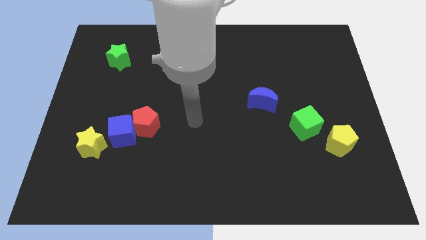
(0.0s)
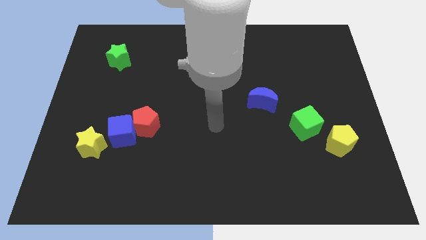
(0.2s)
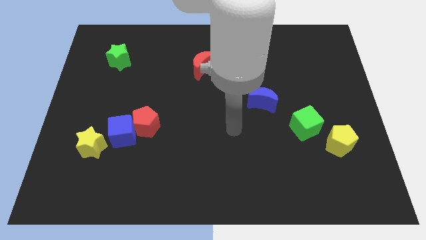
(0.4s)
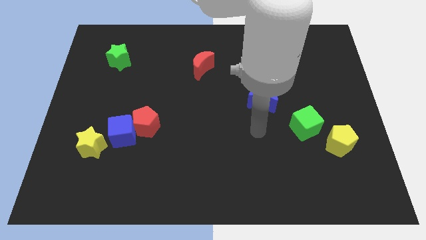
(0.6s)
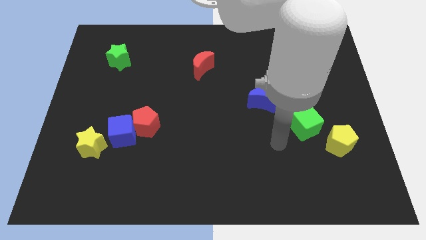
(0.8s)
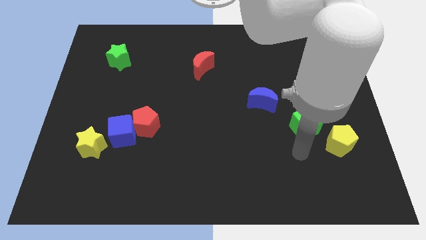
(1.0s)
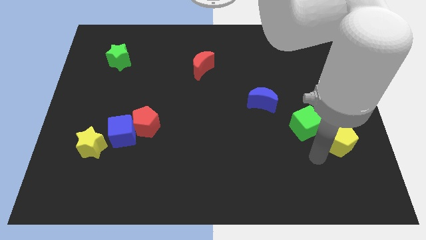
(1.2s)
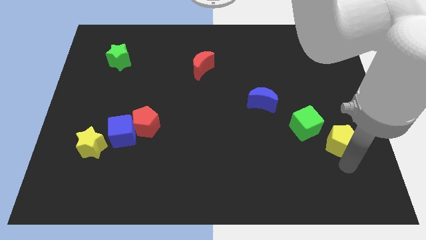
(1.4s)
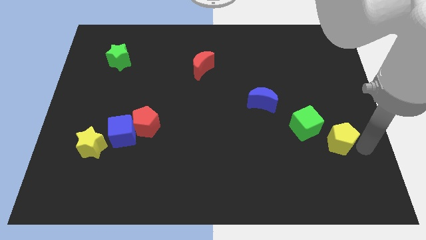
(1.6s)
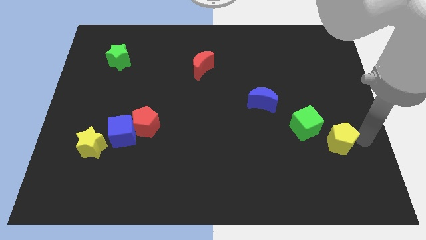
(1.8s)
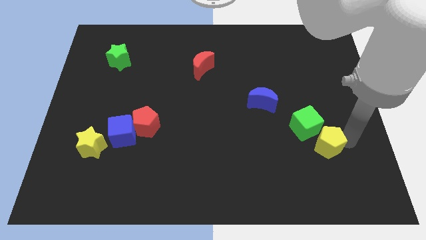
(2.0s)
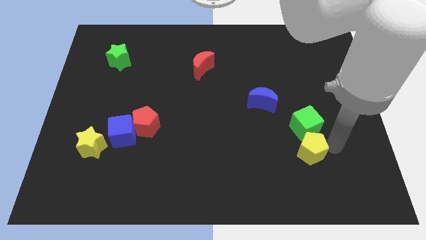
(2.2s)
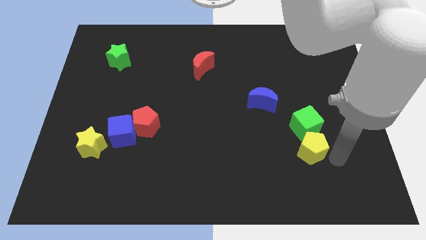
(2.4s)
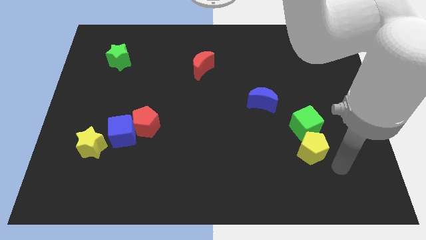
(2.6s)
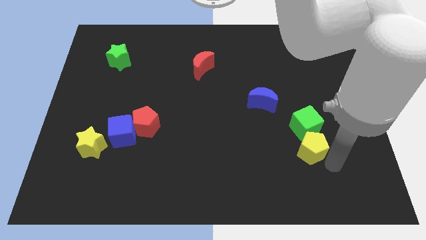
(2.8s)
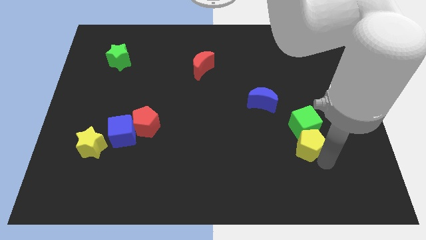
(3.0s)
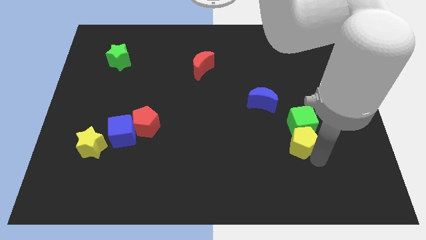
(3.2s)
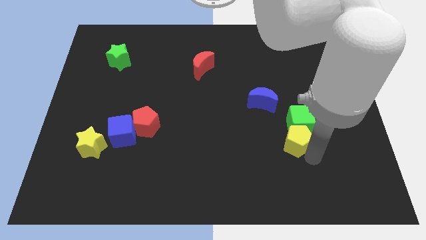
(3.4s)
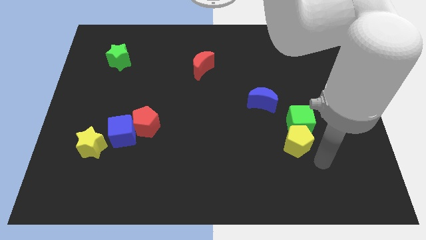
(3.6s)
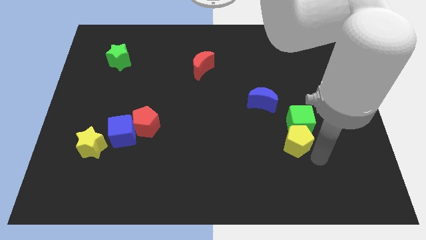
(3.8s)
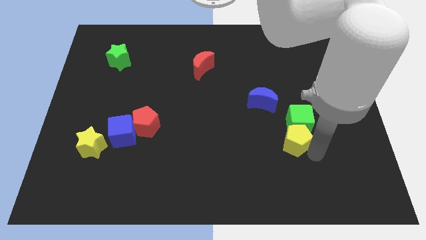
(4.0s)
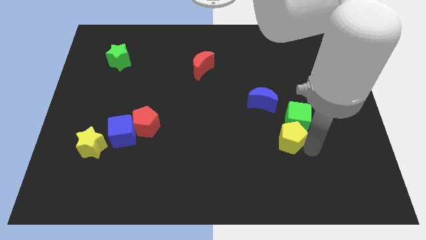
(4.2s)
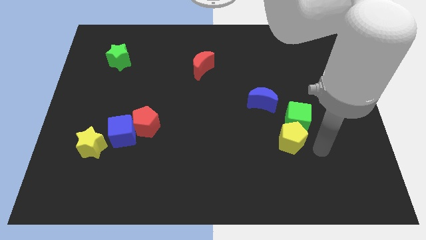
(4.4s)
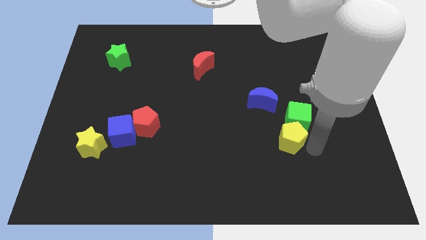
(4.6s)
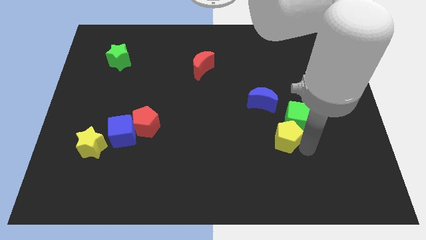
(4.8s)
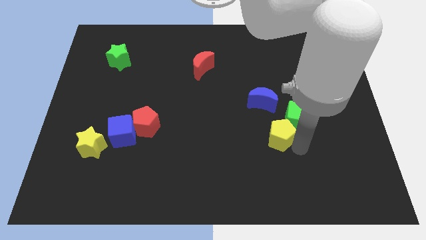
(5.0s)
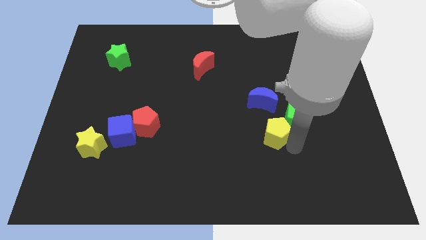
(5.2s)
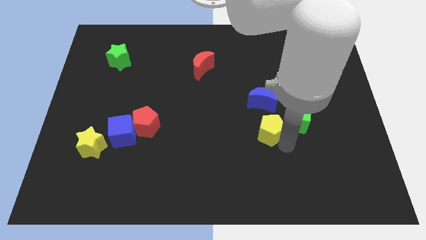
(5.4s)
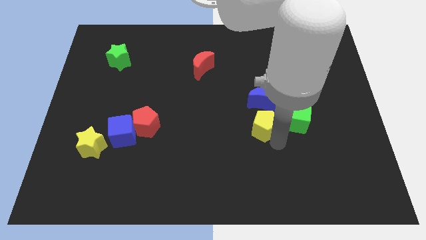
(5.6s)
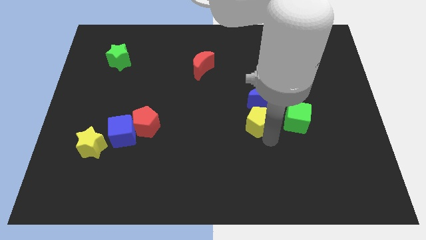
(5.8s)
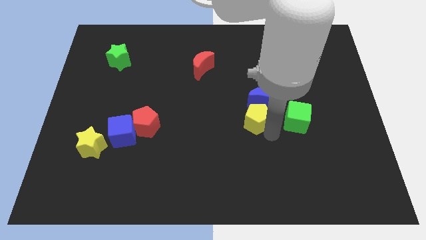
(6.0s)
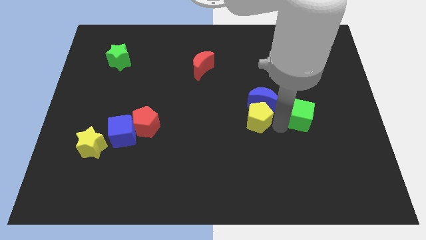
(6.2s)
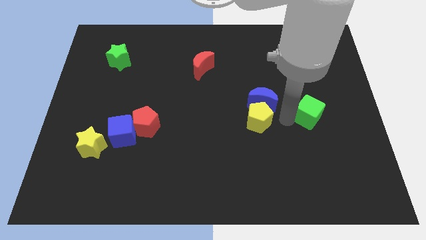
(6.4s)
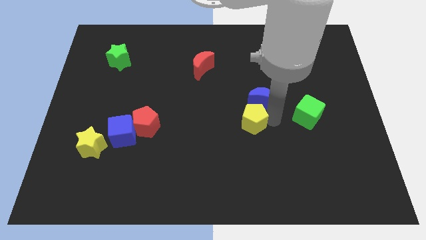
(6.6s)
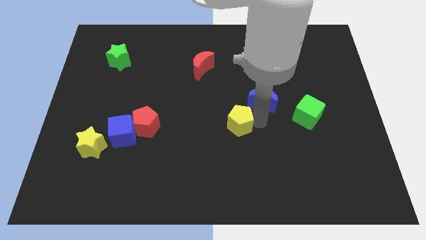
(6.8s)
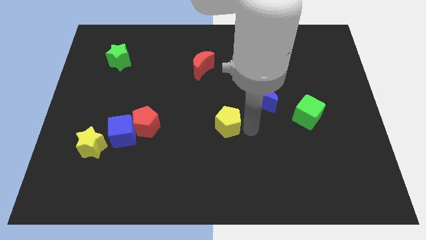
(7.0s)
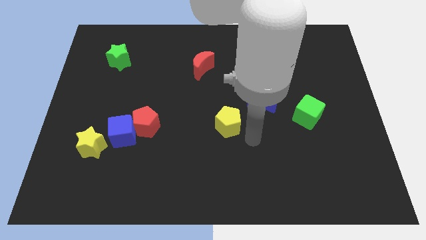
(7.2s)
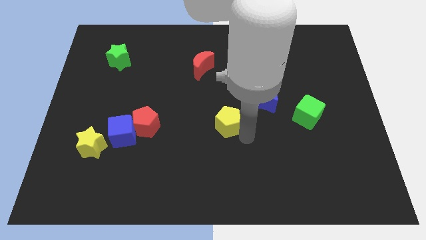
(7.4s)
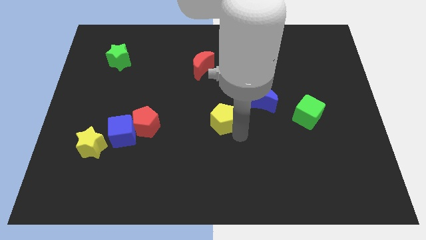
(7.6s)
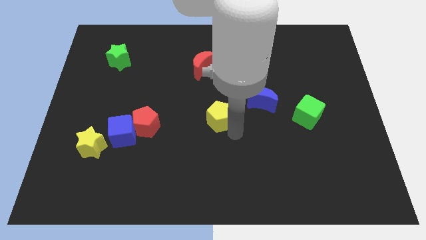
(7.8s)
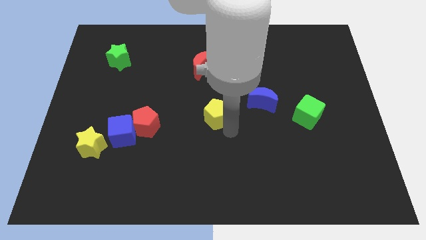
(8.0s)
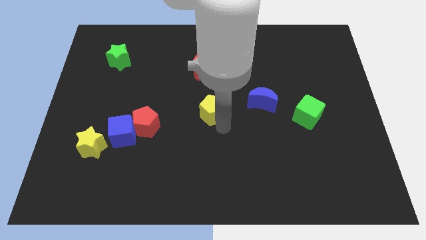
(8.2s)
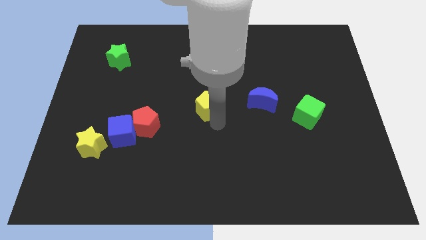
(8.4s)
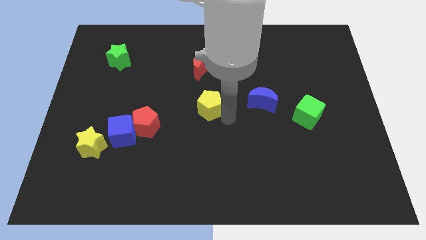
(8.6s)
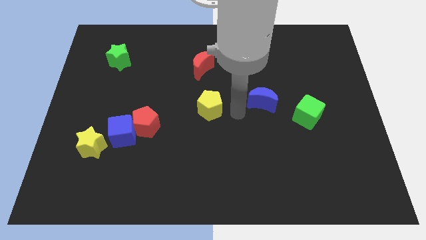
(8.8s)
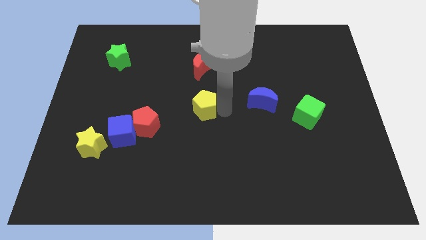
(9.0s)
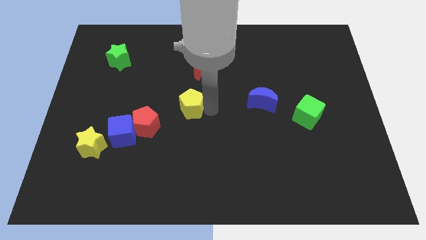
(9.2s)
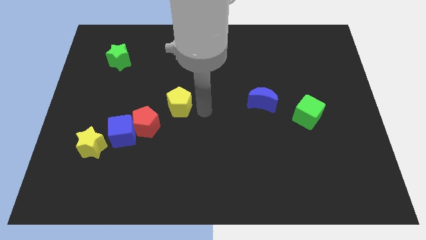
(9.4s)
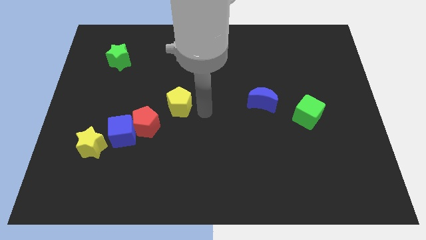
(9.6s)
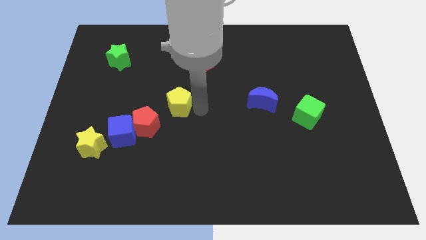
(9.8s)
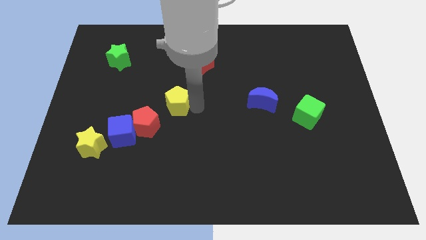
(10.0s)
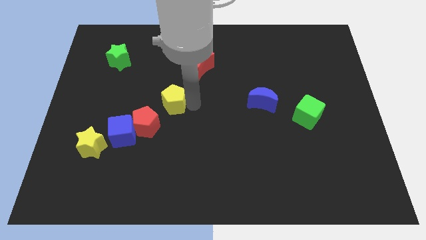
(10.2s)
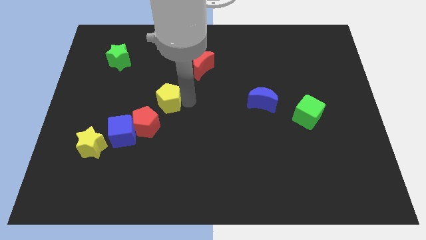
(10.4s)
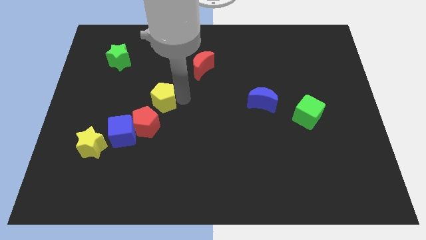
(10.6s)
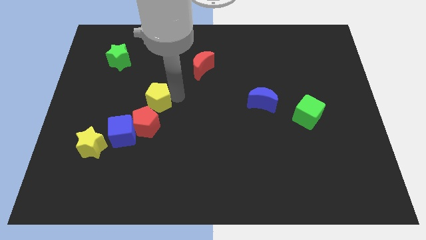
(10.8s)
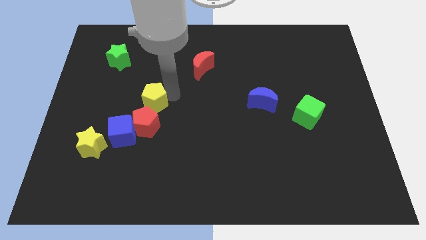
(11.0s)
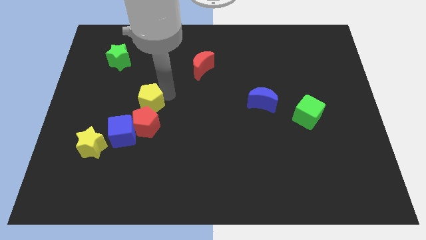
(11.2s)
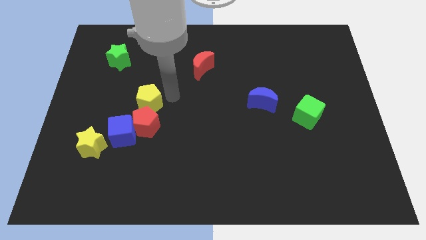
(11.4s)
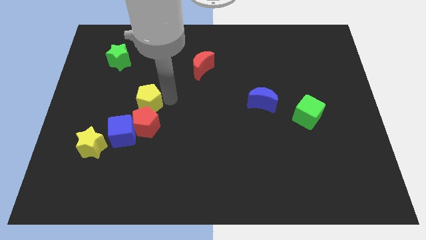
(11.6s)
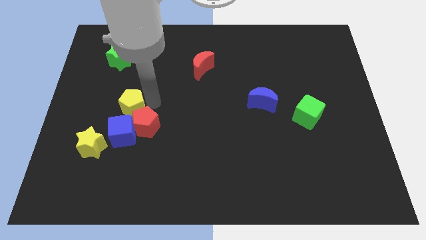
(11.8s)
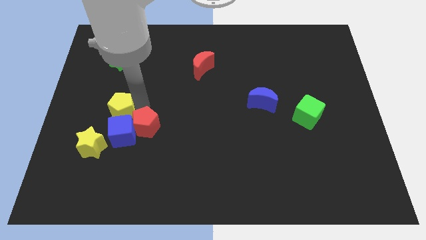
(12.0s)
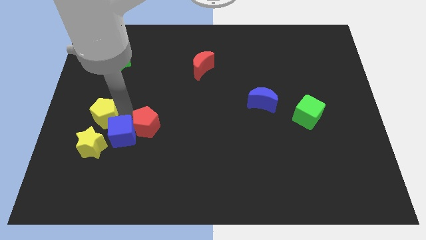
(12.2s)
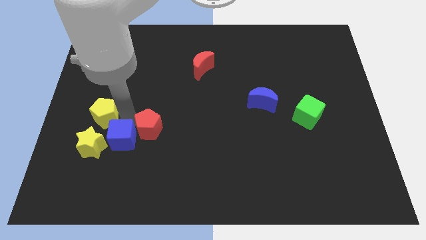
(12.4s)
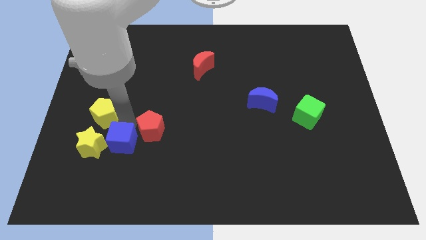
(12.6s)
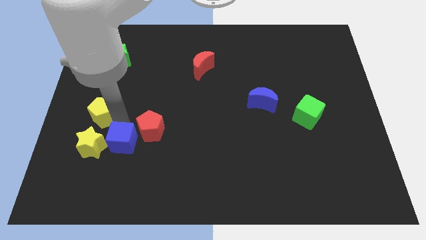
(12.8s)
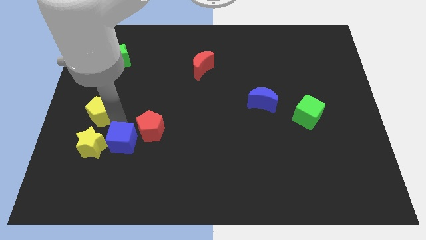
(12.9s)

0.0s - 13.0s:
put the yellow pentagon to the center left
